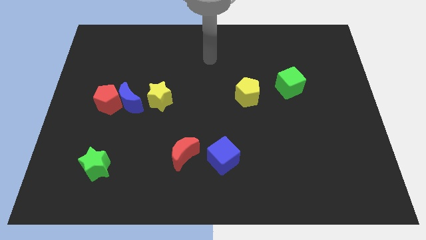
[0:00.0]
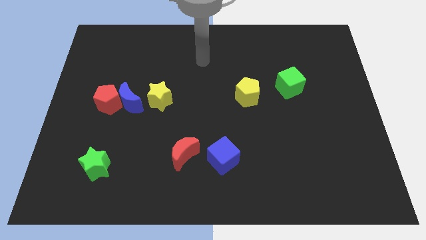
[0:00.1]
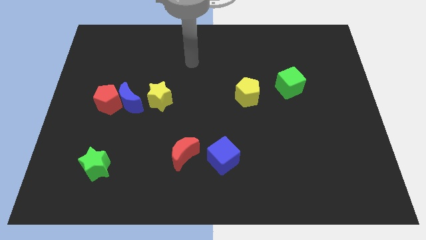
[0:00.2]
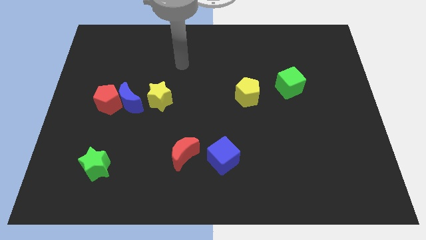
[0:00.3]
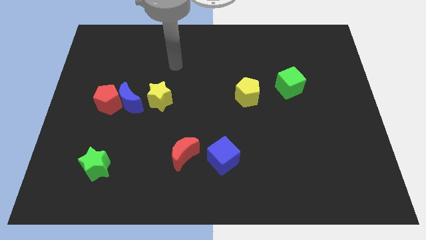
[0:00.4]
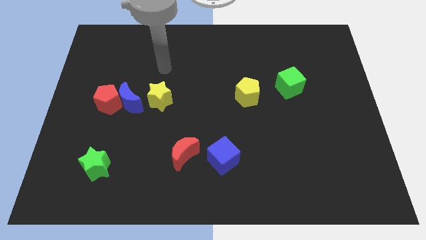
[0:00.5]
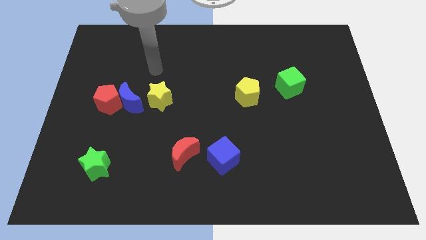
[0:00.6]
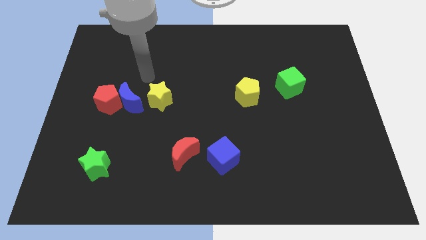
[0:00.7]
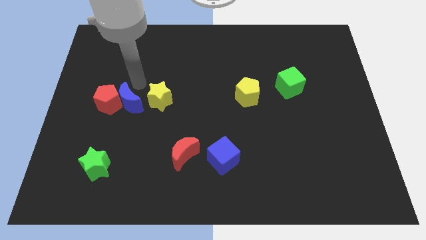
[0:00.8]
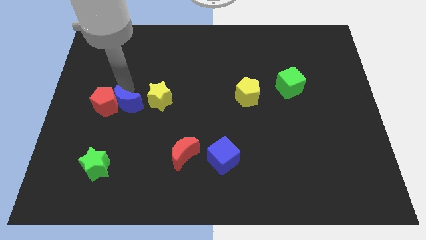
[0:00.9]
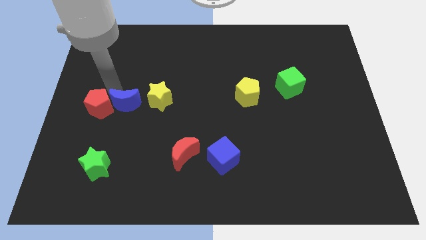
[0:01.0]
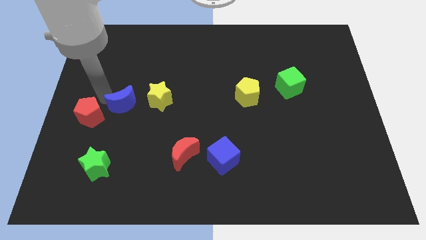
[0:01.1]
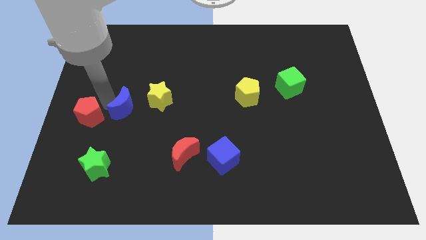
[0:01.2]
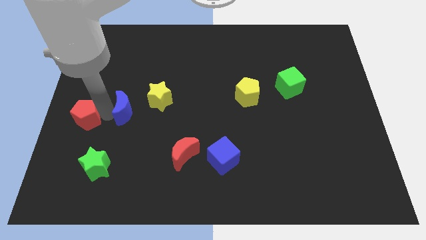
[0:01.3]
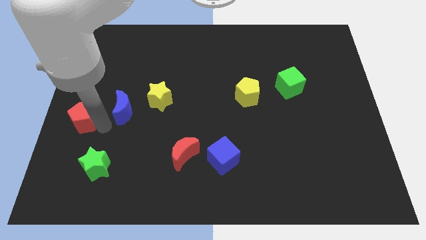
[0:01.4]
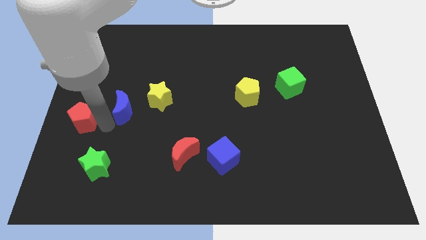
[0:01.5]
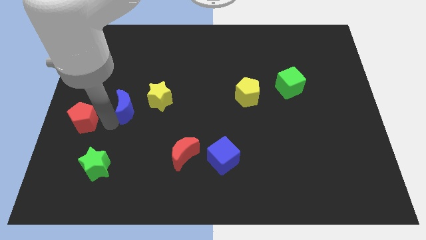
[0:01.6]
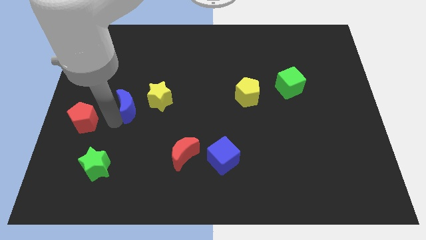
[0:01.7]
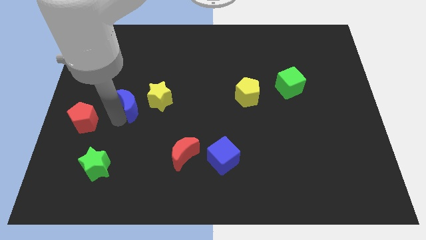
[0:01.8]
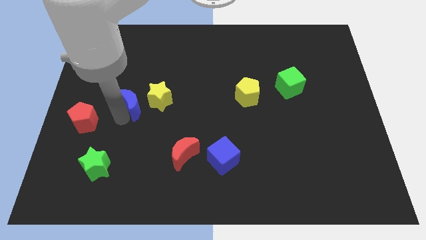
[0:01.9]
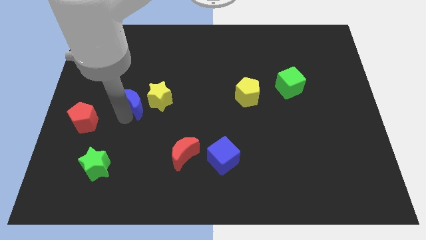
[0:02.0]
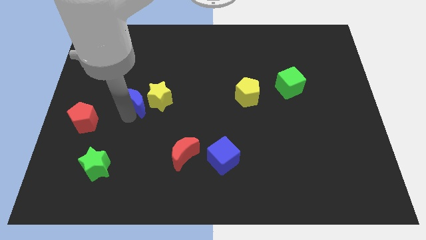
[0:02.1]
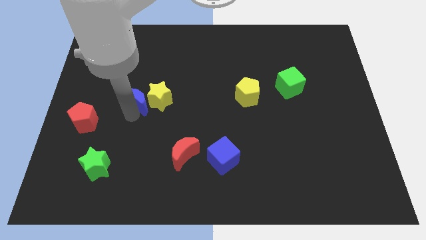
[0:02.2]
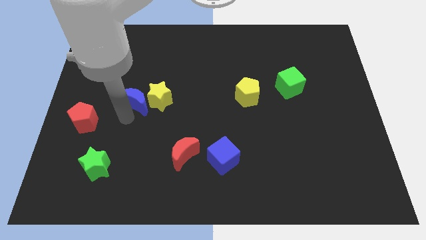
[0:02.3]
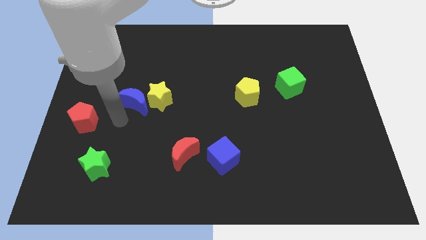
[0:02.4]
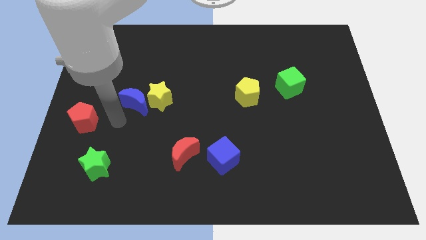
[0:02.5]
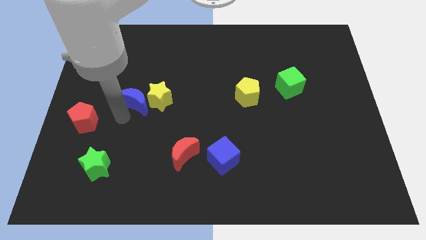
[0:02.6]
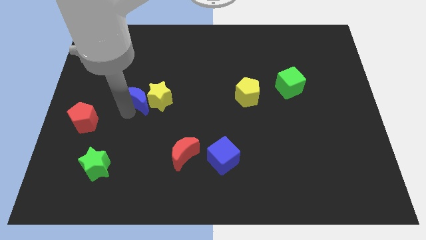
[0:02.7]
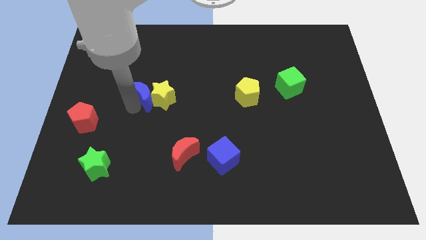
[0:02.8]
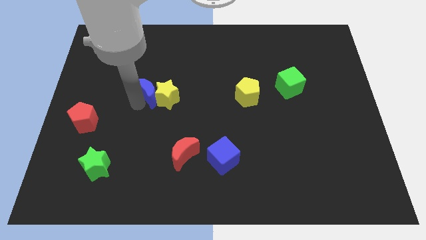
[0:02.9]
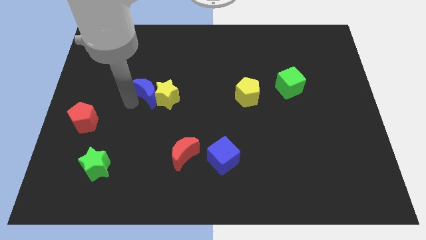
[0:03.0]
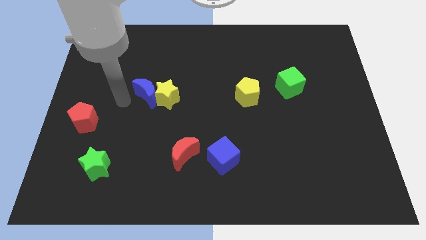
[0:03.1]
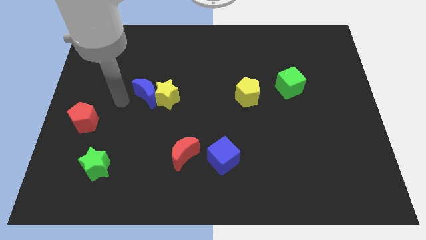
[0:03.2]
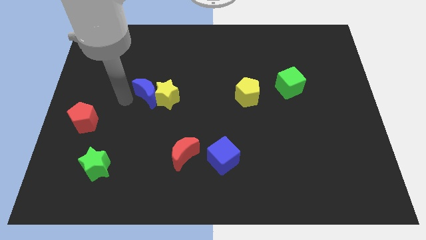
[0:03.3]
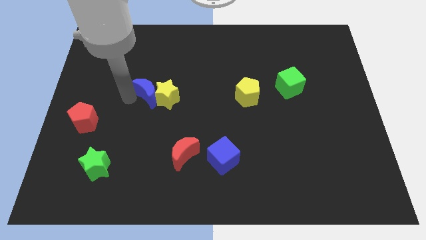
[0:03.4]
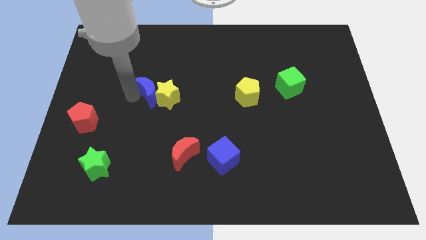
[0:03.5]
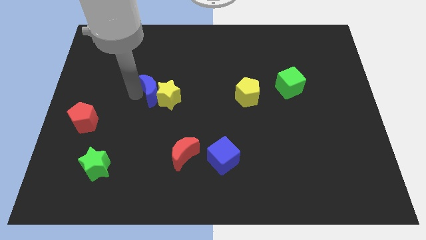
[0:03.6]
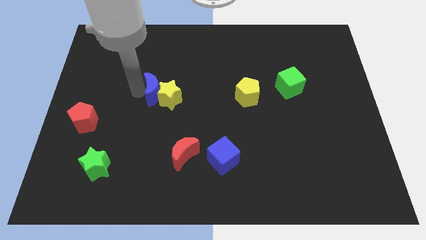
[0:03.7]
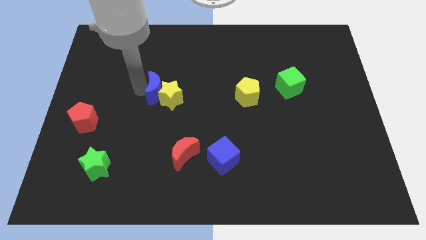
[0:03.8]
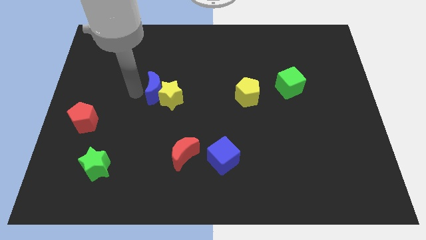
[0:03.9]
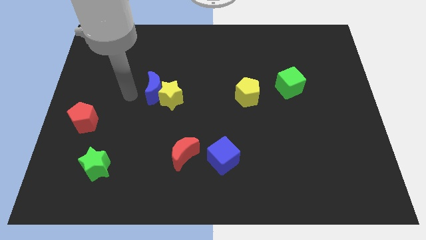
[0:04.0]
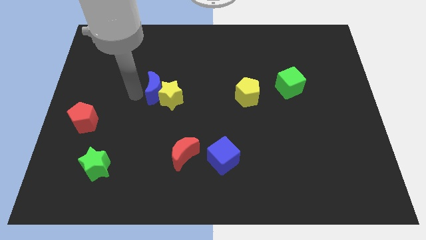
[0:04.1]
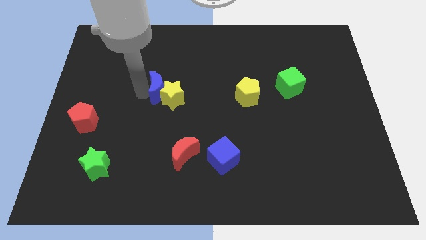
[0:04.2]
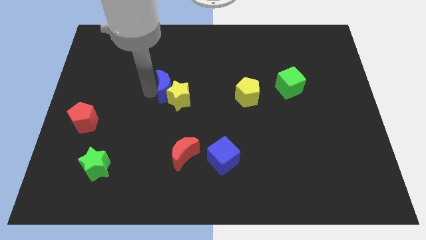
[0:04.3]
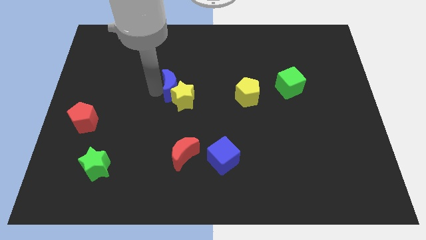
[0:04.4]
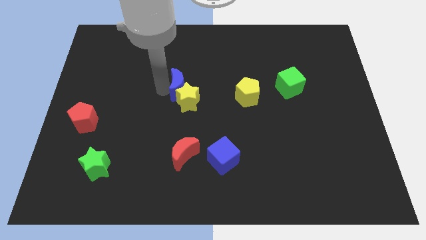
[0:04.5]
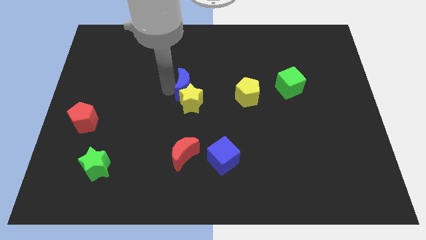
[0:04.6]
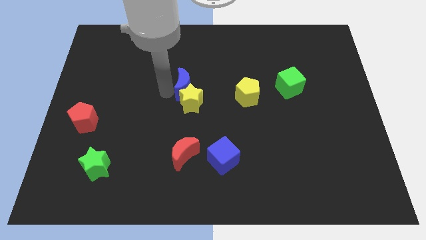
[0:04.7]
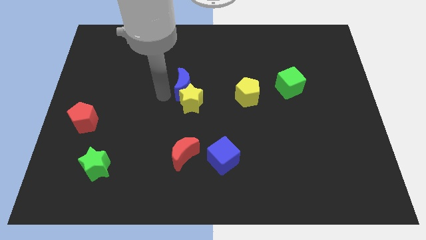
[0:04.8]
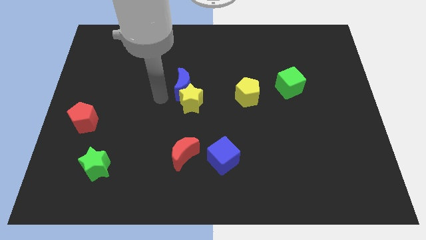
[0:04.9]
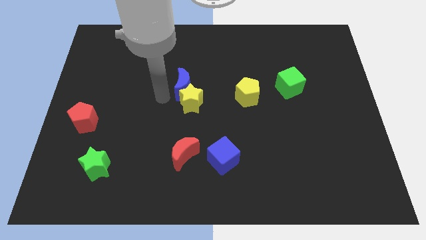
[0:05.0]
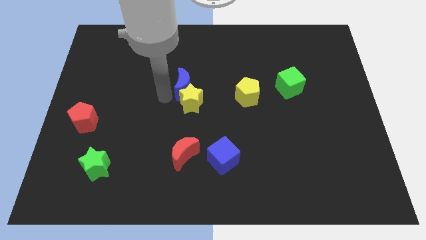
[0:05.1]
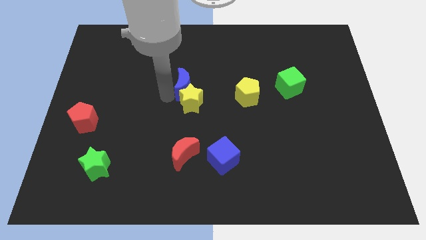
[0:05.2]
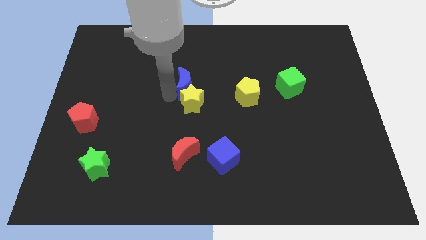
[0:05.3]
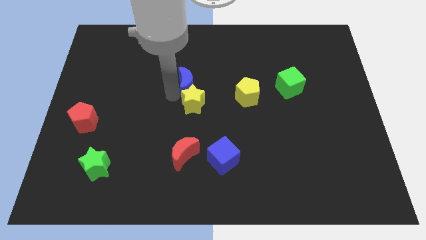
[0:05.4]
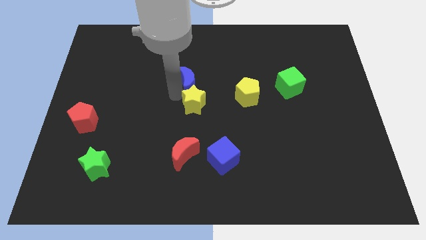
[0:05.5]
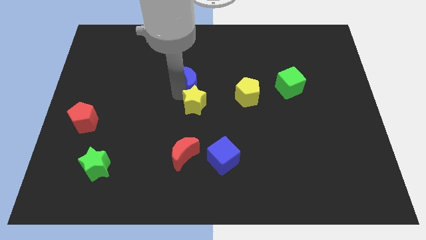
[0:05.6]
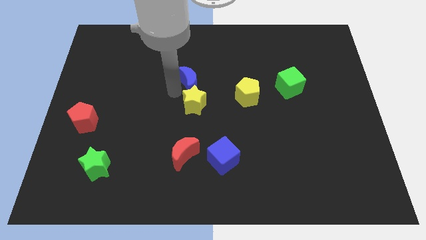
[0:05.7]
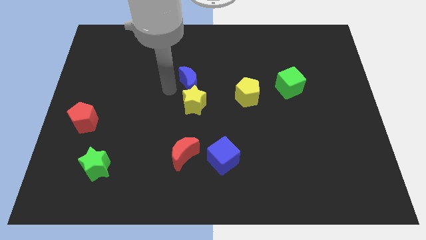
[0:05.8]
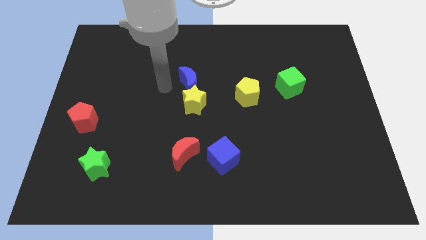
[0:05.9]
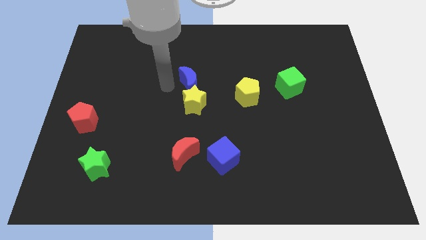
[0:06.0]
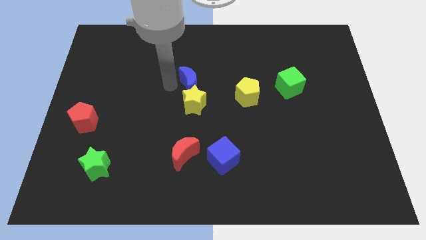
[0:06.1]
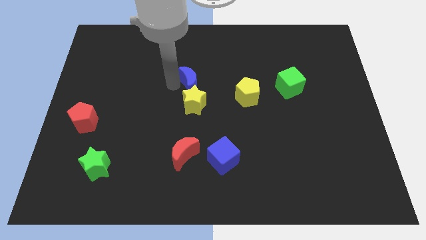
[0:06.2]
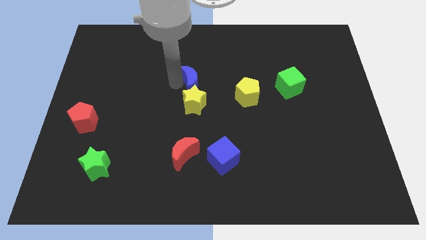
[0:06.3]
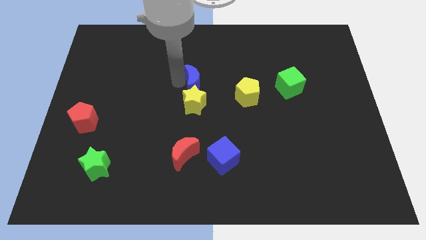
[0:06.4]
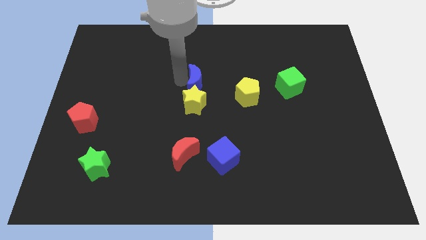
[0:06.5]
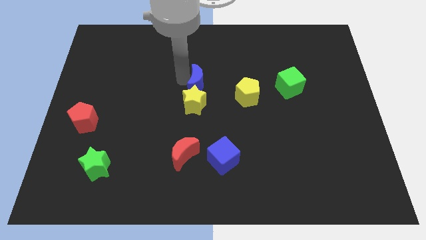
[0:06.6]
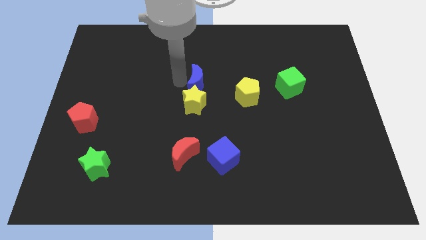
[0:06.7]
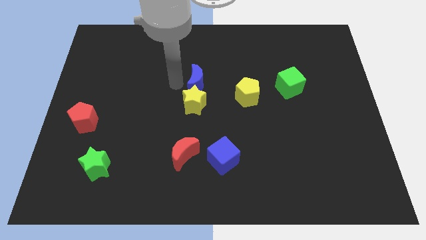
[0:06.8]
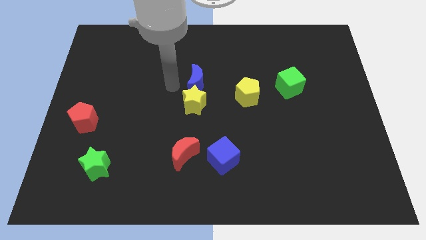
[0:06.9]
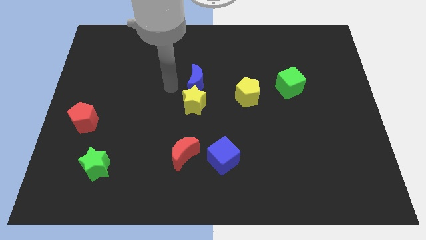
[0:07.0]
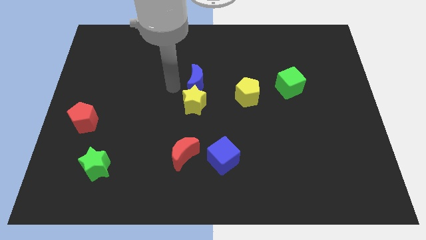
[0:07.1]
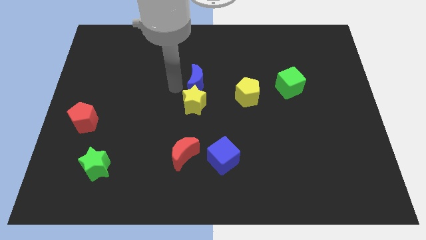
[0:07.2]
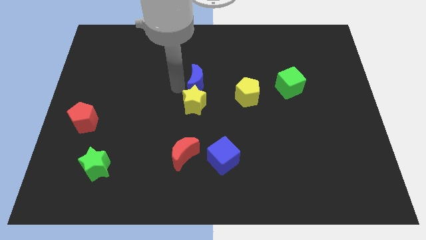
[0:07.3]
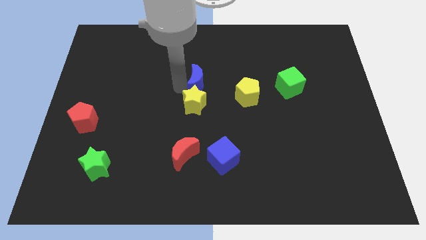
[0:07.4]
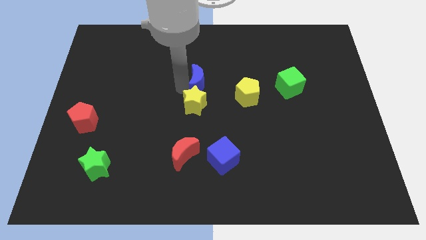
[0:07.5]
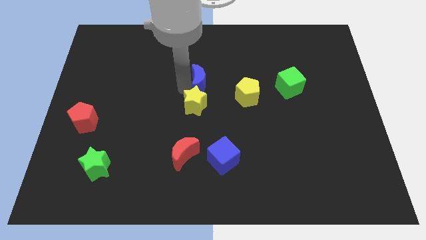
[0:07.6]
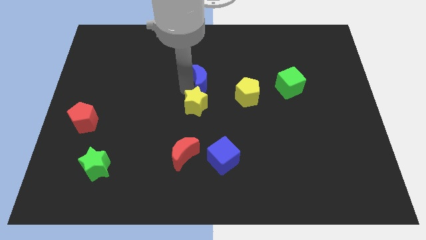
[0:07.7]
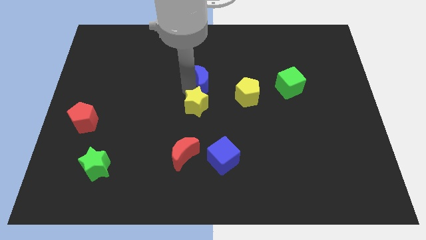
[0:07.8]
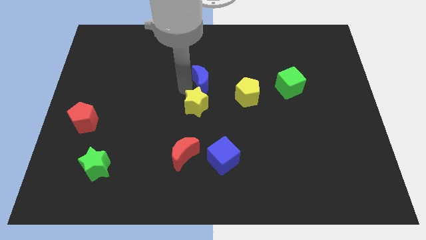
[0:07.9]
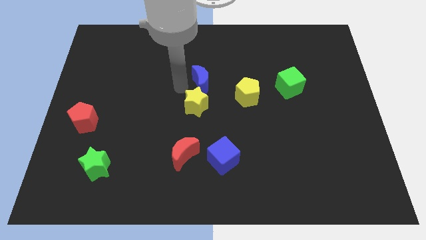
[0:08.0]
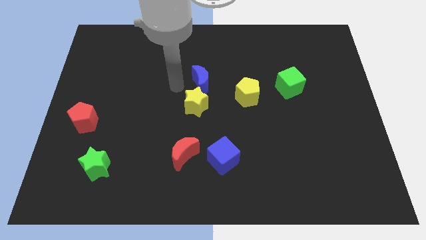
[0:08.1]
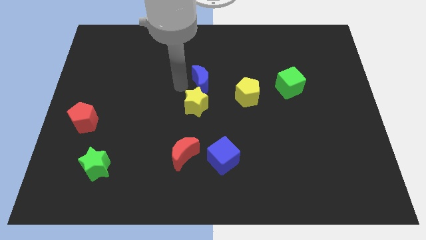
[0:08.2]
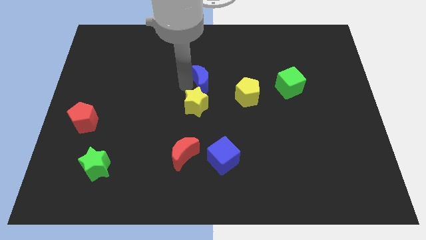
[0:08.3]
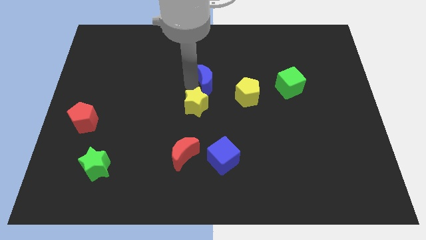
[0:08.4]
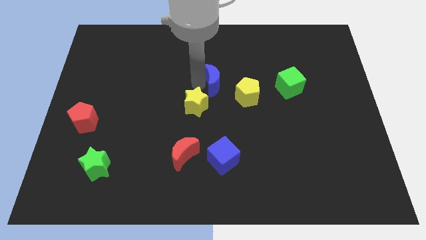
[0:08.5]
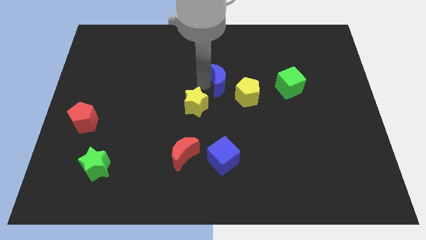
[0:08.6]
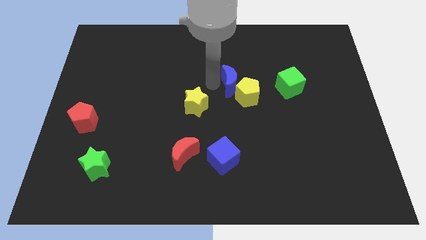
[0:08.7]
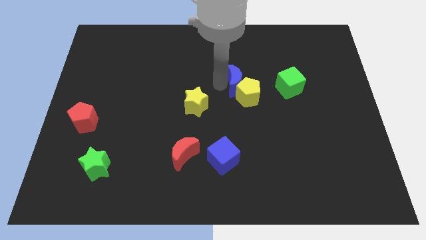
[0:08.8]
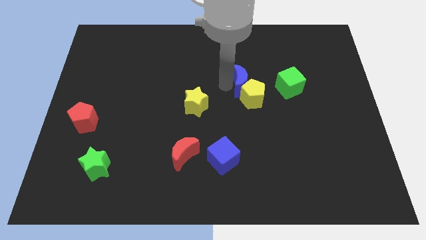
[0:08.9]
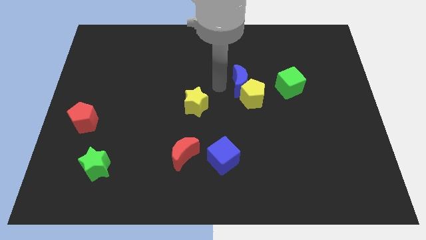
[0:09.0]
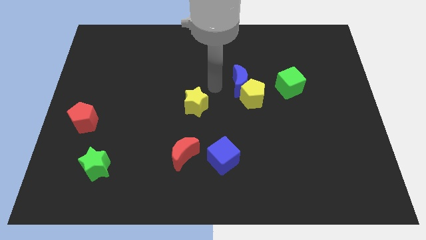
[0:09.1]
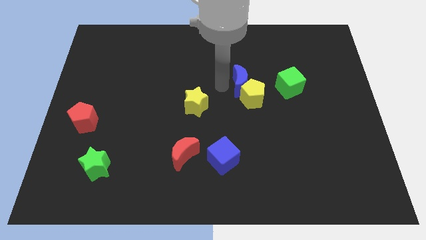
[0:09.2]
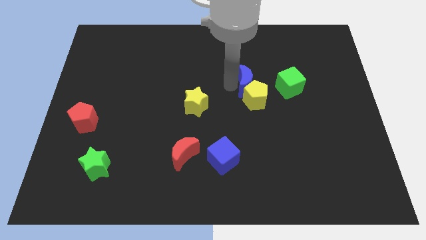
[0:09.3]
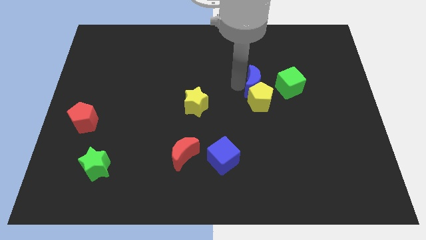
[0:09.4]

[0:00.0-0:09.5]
put the blue moon to the top right side of the yellow pentagon
